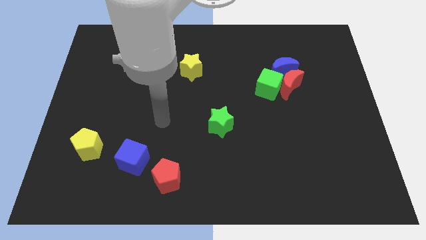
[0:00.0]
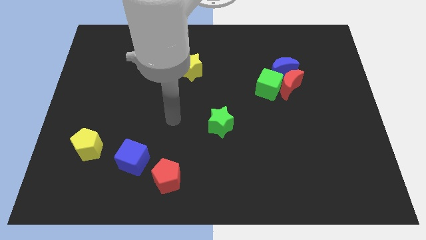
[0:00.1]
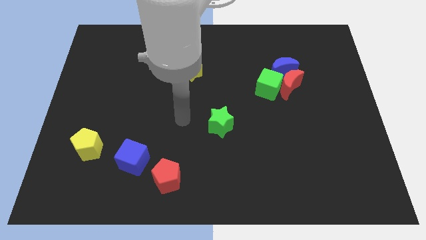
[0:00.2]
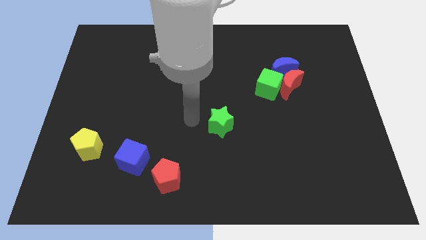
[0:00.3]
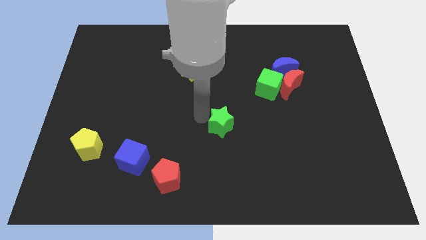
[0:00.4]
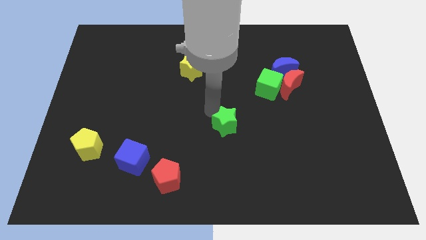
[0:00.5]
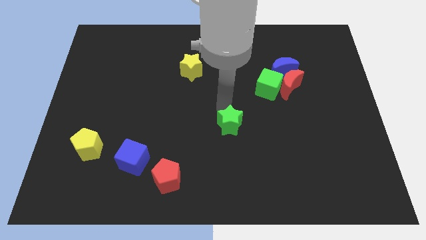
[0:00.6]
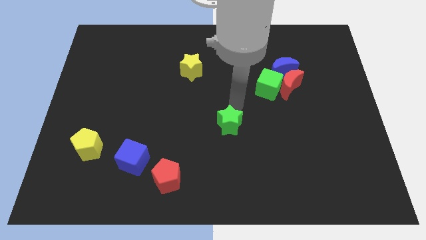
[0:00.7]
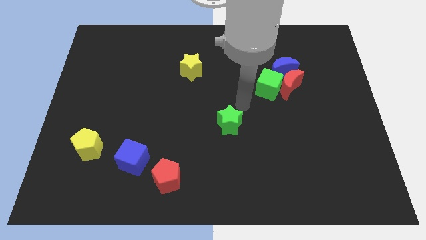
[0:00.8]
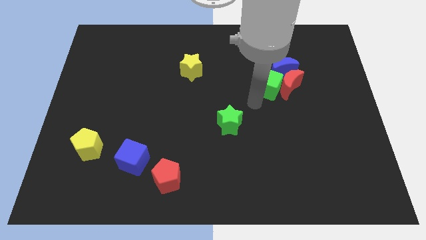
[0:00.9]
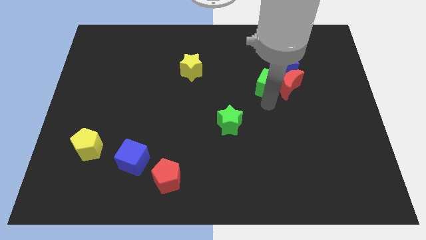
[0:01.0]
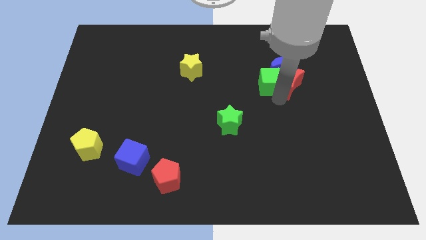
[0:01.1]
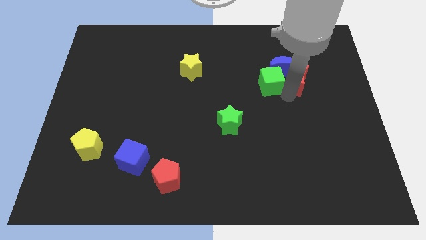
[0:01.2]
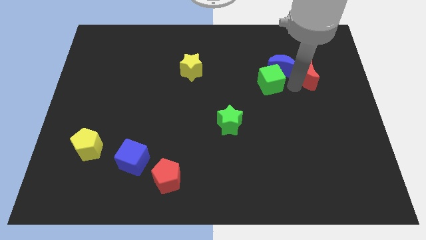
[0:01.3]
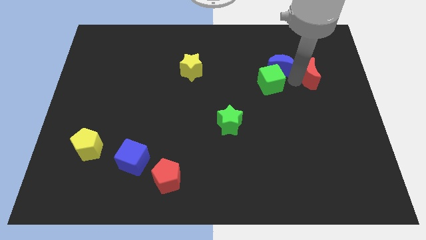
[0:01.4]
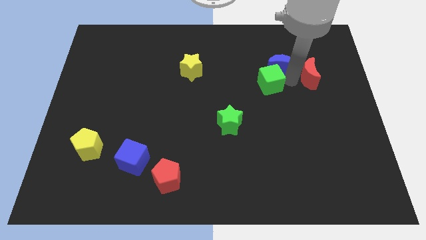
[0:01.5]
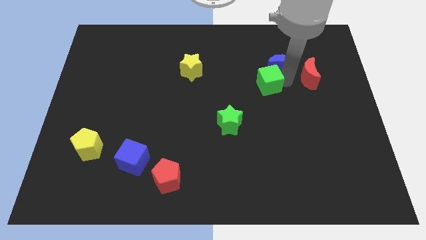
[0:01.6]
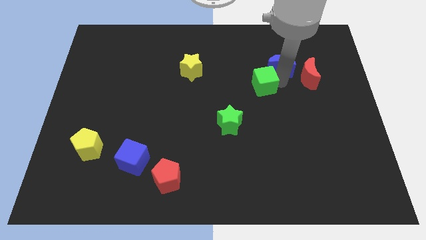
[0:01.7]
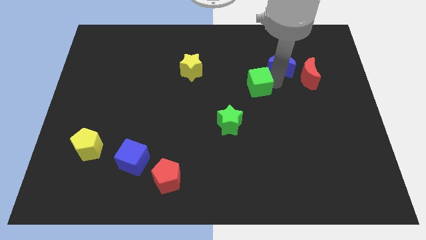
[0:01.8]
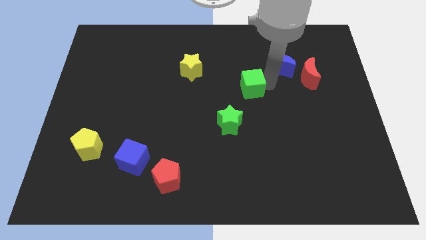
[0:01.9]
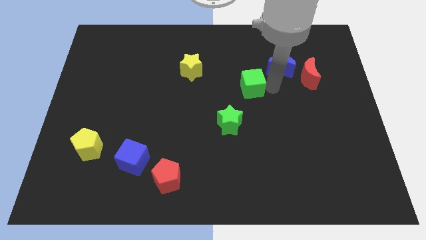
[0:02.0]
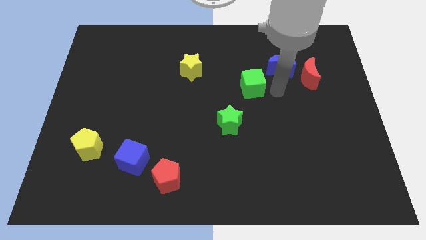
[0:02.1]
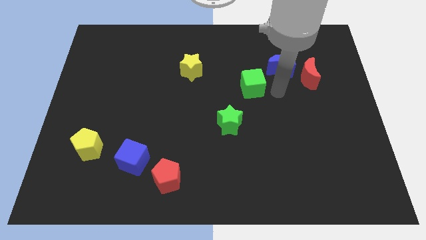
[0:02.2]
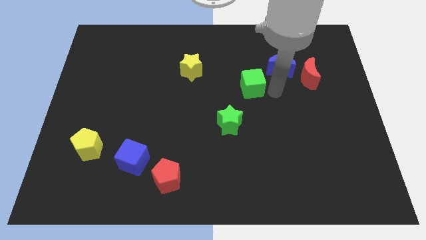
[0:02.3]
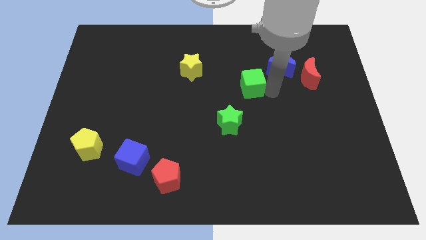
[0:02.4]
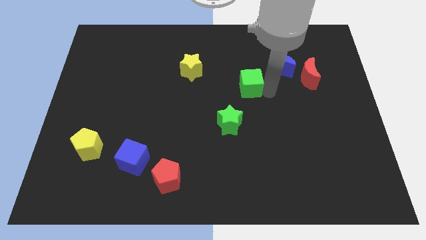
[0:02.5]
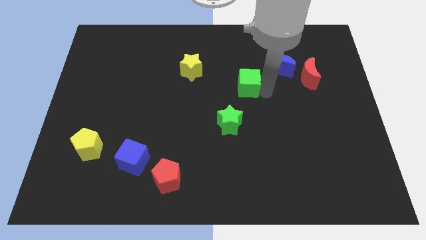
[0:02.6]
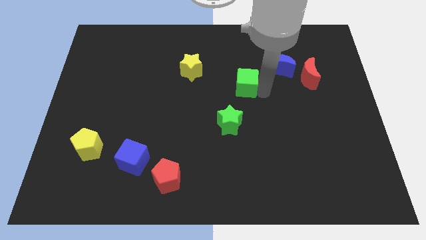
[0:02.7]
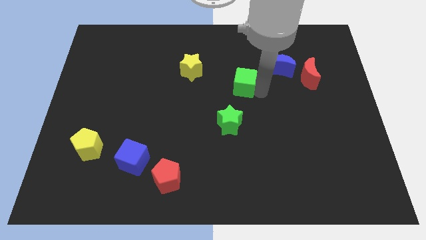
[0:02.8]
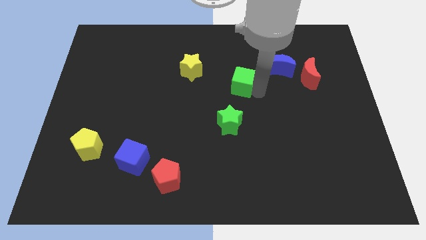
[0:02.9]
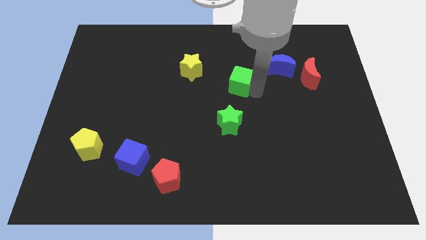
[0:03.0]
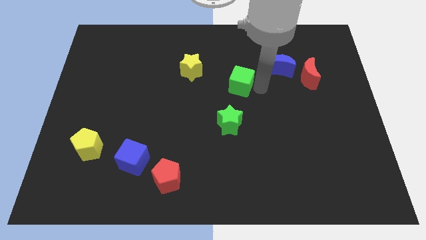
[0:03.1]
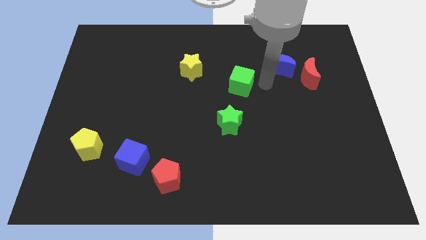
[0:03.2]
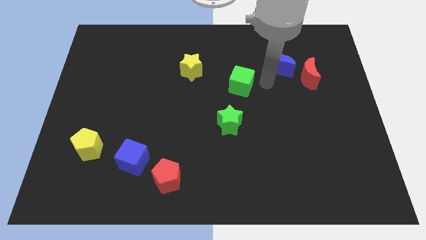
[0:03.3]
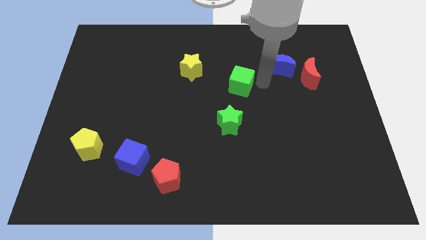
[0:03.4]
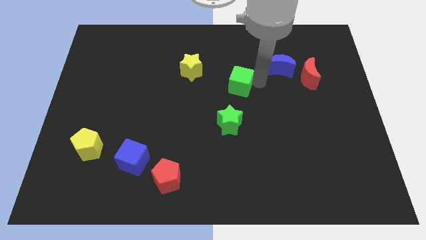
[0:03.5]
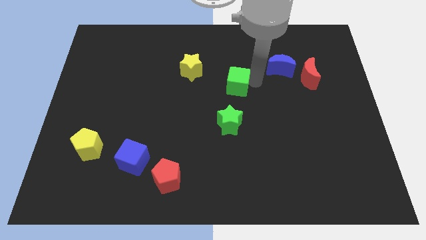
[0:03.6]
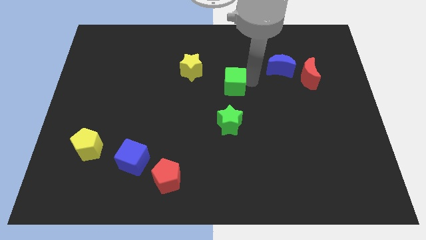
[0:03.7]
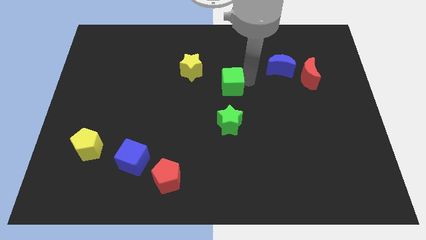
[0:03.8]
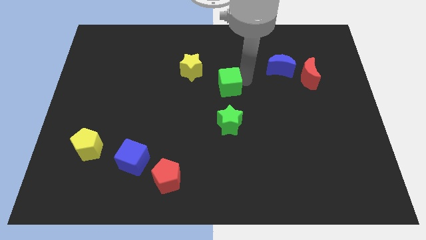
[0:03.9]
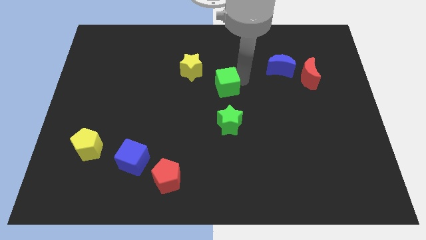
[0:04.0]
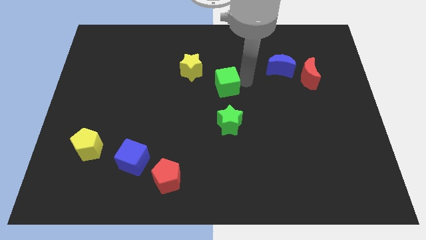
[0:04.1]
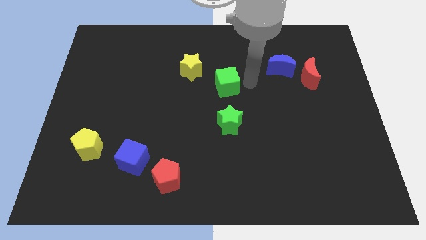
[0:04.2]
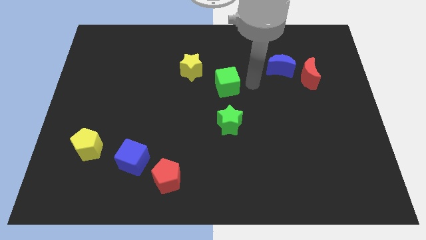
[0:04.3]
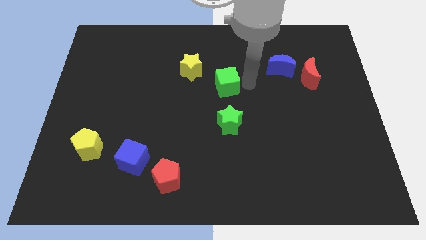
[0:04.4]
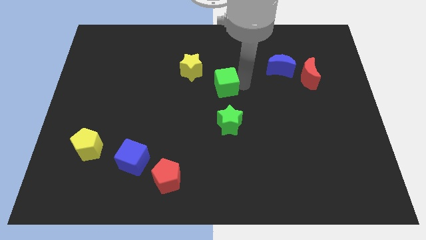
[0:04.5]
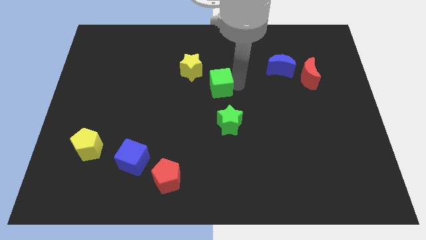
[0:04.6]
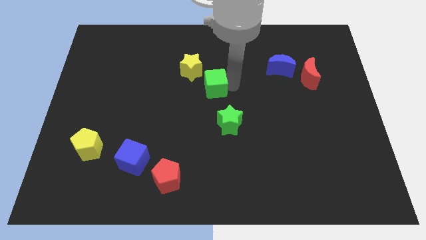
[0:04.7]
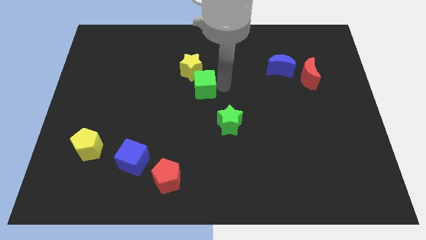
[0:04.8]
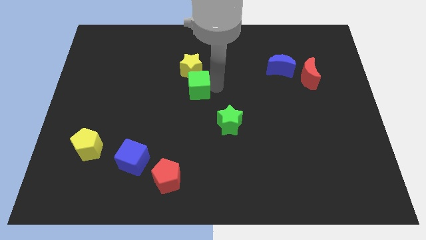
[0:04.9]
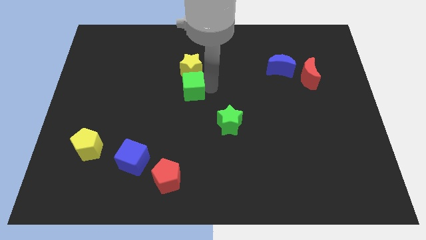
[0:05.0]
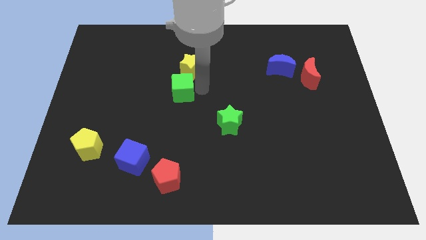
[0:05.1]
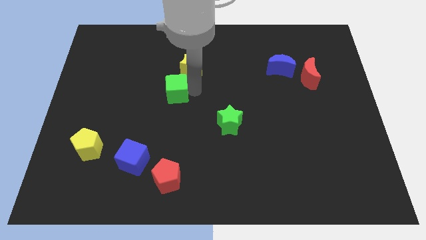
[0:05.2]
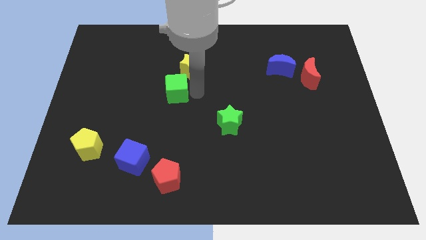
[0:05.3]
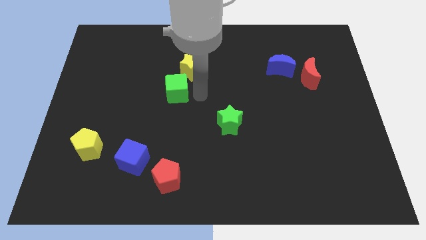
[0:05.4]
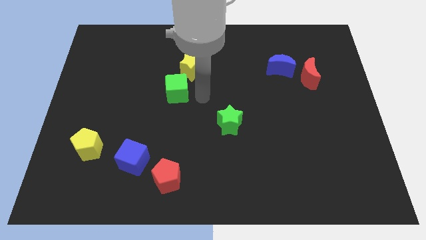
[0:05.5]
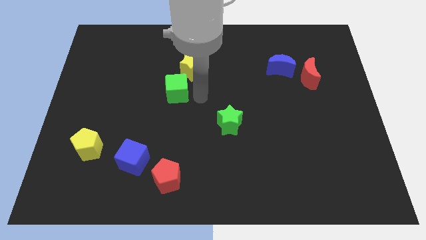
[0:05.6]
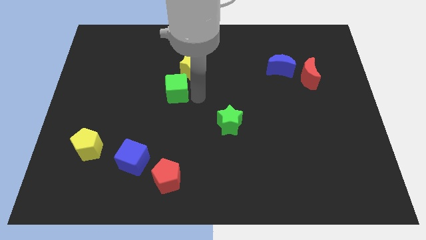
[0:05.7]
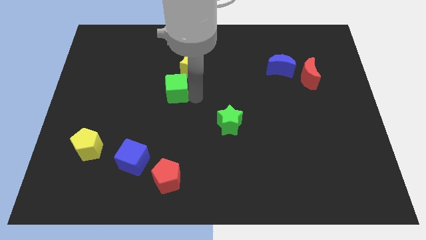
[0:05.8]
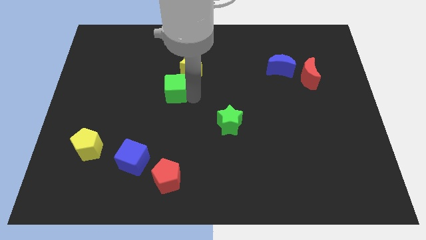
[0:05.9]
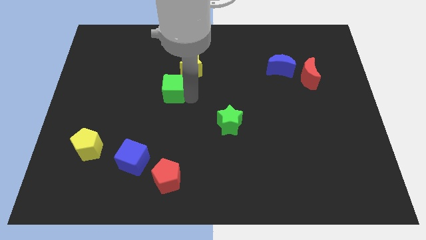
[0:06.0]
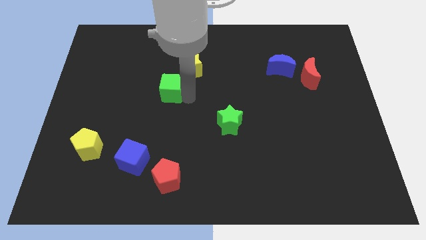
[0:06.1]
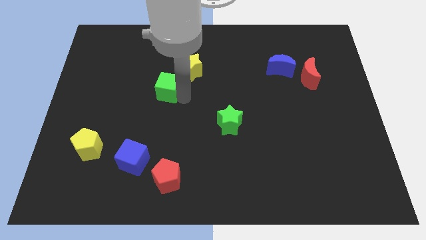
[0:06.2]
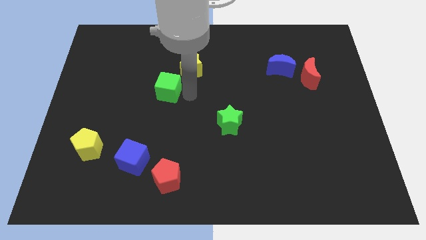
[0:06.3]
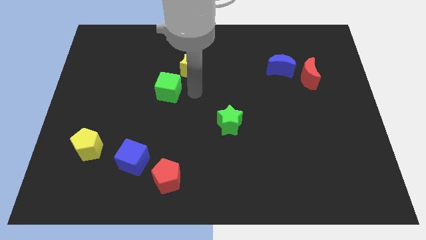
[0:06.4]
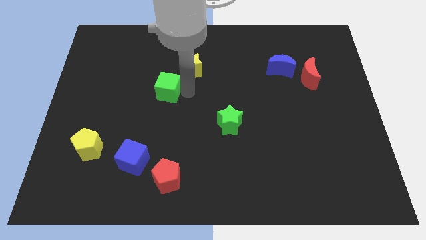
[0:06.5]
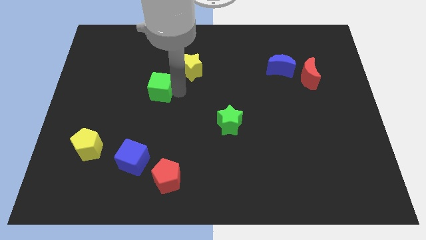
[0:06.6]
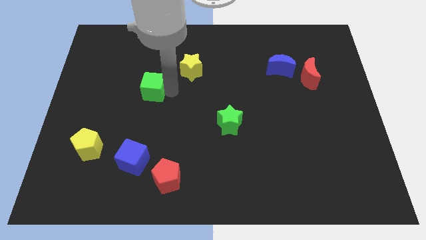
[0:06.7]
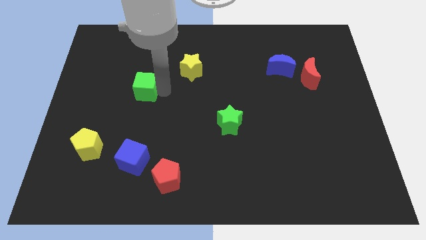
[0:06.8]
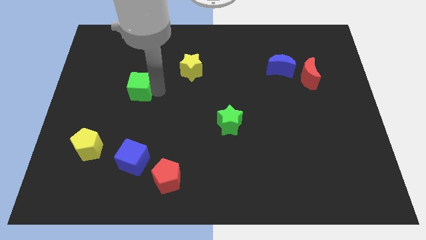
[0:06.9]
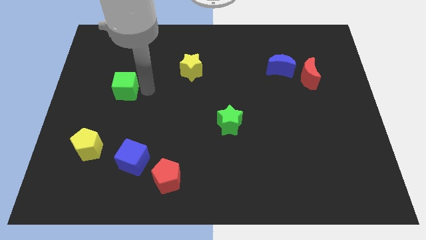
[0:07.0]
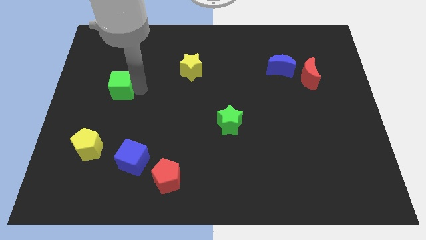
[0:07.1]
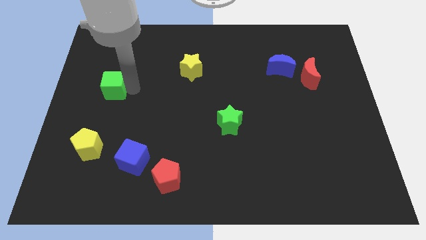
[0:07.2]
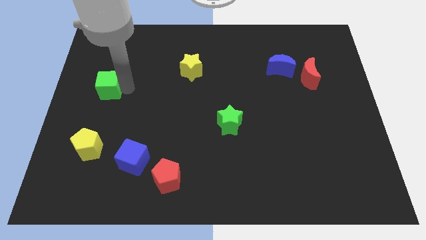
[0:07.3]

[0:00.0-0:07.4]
put the green cube to the center left

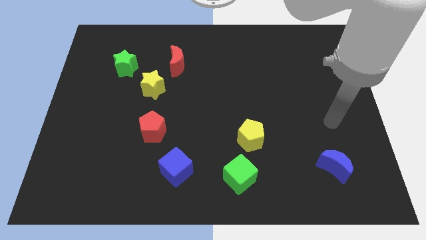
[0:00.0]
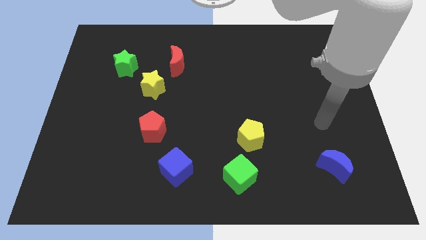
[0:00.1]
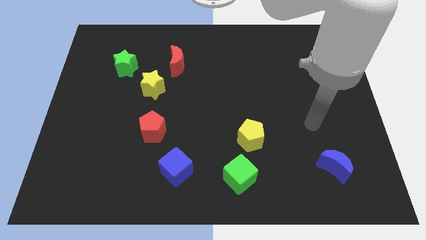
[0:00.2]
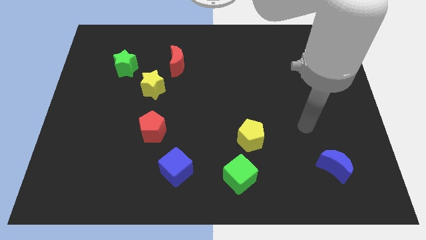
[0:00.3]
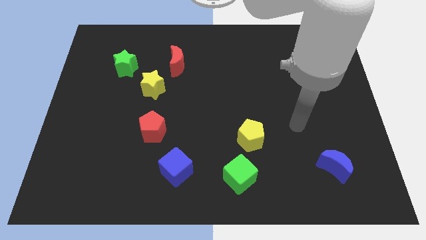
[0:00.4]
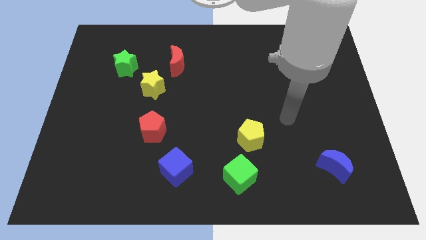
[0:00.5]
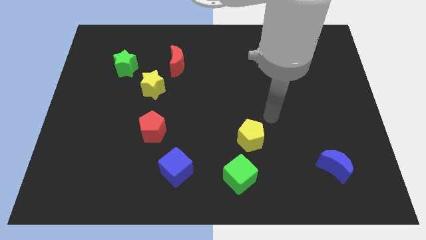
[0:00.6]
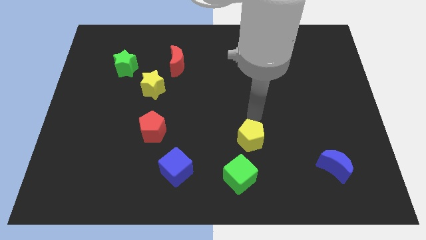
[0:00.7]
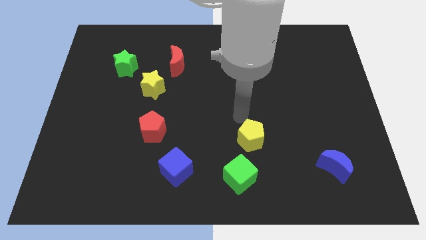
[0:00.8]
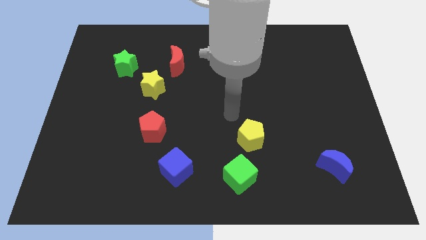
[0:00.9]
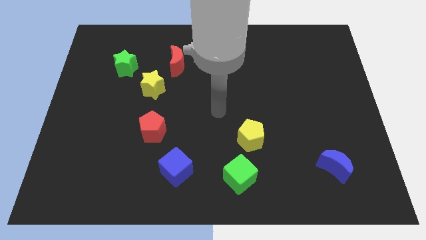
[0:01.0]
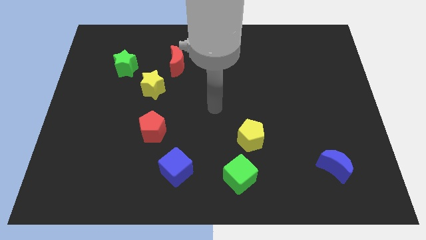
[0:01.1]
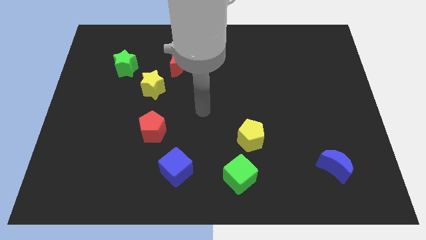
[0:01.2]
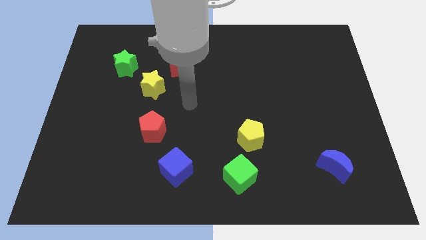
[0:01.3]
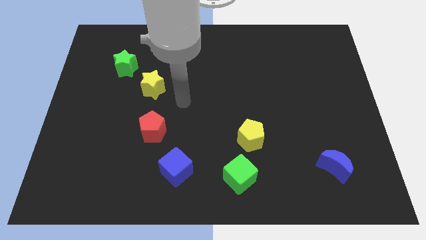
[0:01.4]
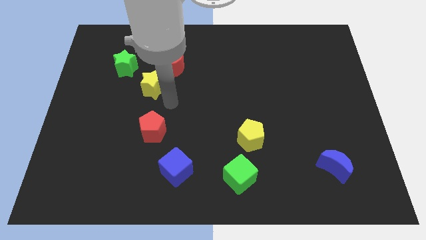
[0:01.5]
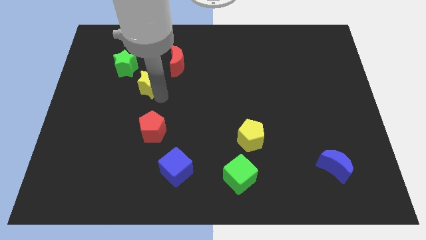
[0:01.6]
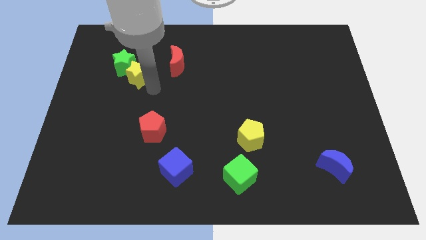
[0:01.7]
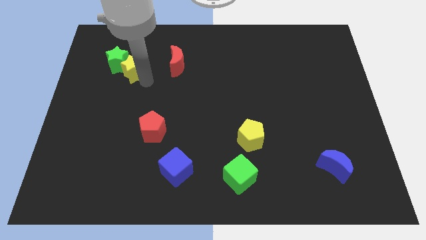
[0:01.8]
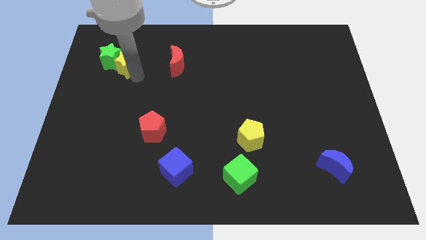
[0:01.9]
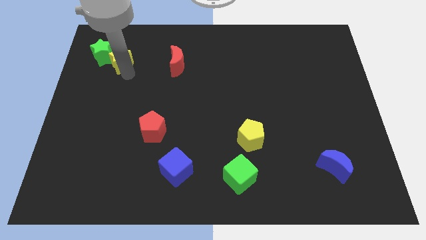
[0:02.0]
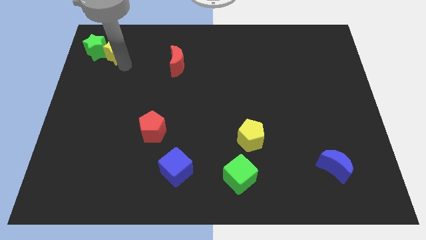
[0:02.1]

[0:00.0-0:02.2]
slide the green star to the top left of the board
